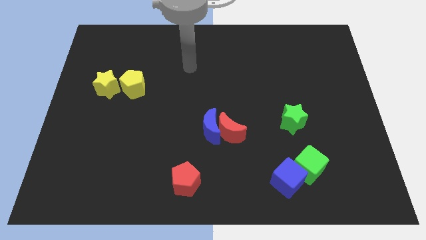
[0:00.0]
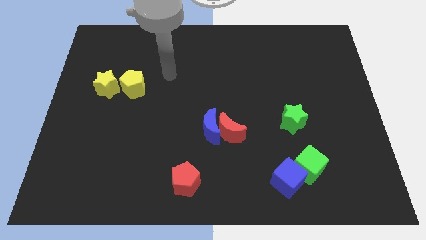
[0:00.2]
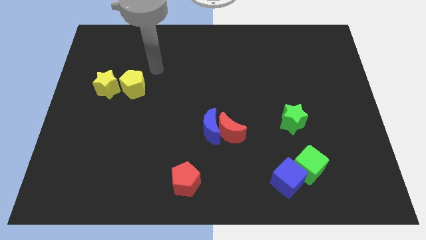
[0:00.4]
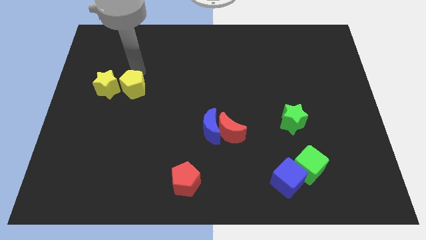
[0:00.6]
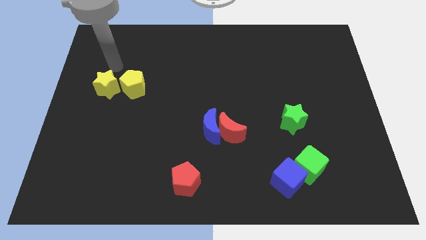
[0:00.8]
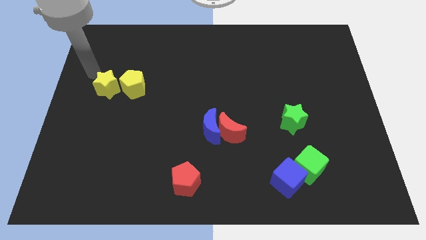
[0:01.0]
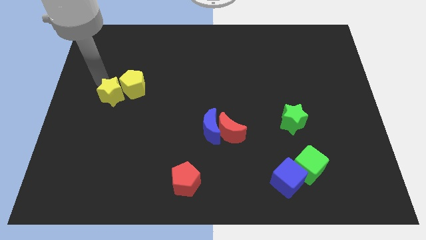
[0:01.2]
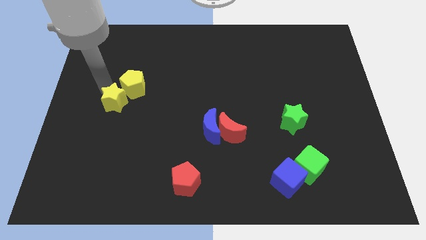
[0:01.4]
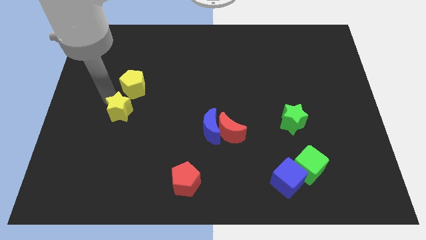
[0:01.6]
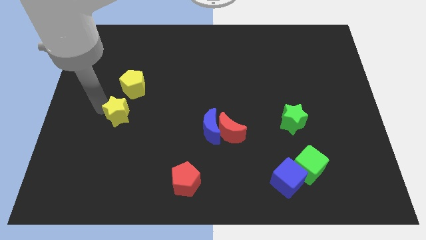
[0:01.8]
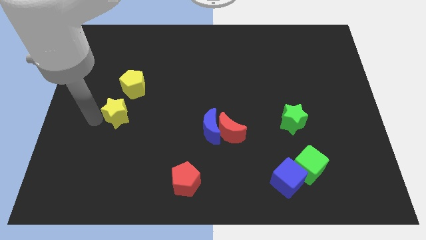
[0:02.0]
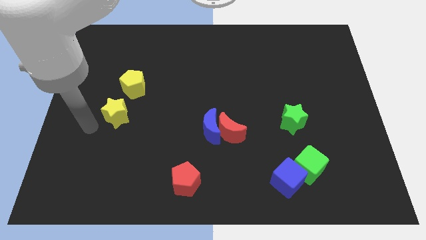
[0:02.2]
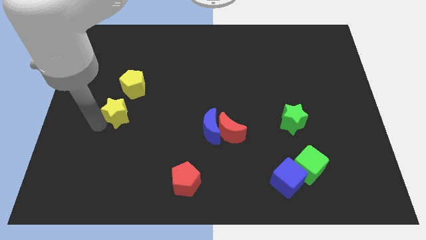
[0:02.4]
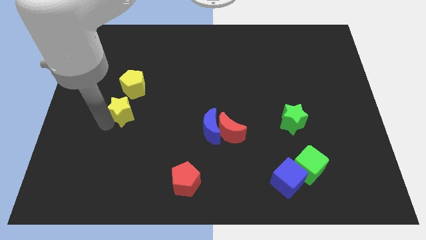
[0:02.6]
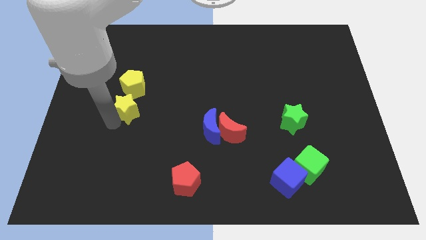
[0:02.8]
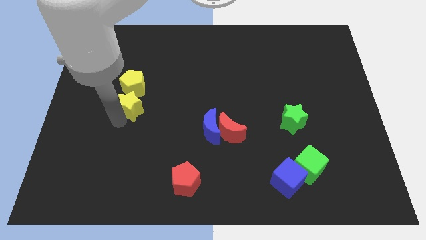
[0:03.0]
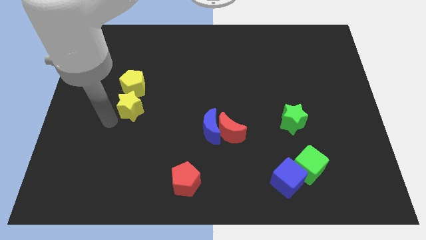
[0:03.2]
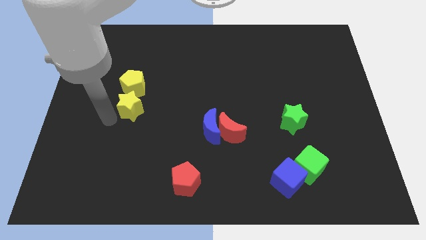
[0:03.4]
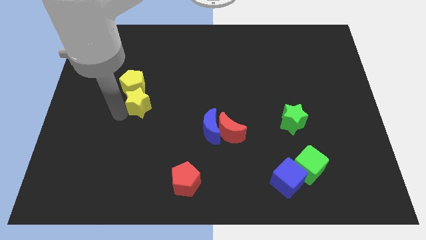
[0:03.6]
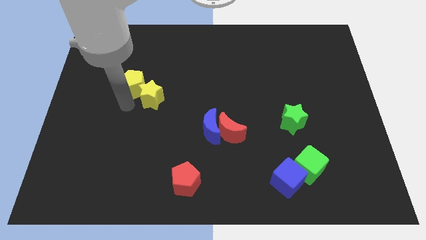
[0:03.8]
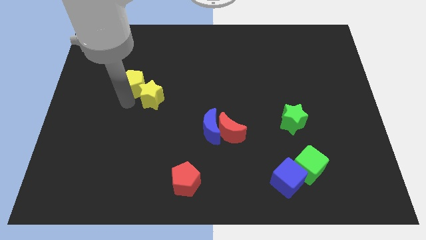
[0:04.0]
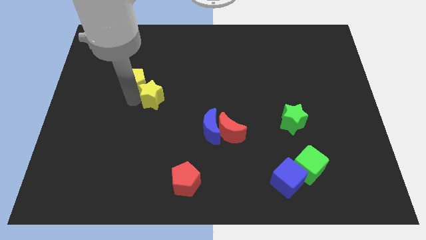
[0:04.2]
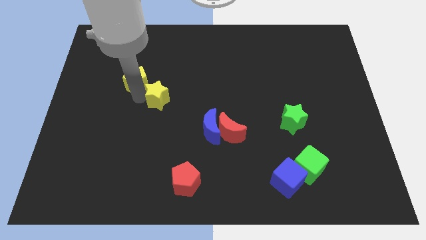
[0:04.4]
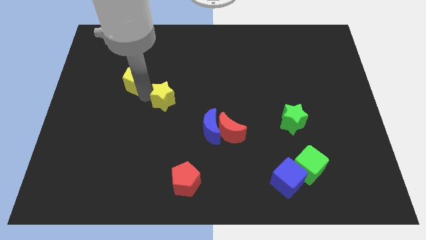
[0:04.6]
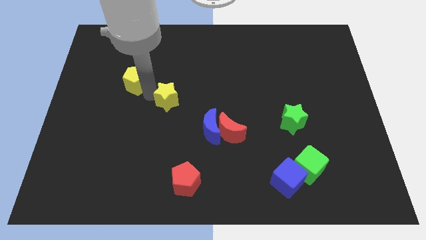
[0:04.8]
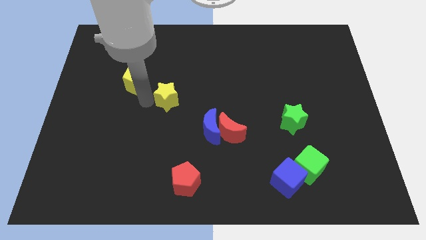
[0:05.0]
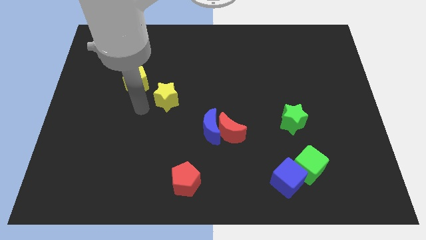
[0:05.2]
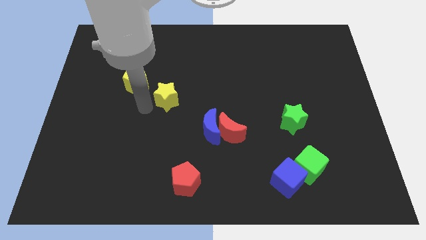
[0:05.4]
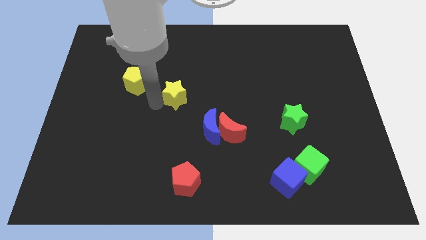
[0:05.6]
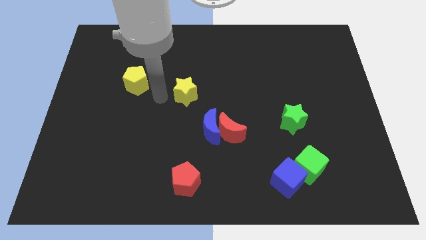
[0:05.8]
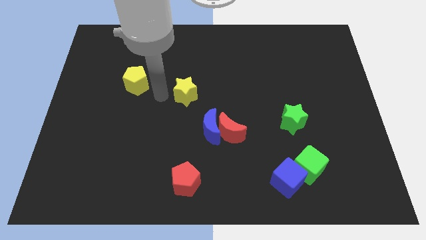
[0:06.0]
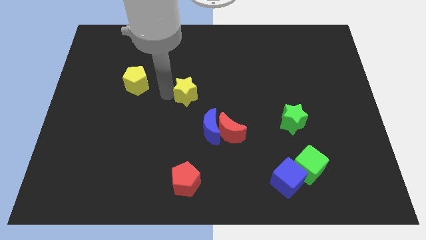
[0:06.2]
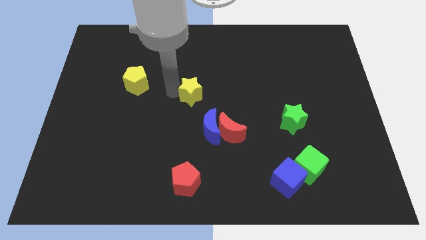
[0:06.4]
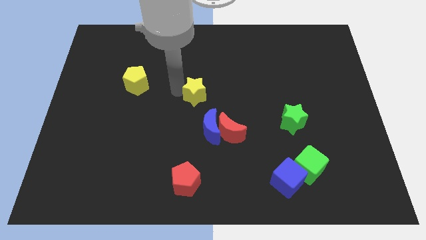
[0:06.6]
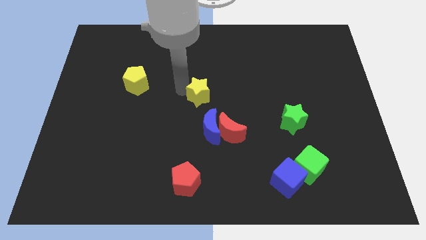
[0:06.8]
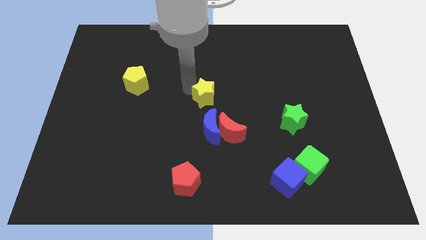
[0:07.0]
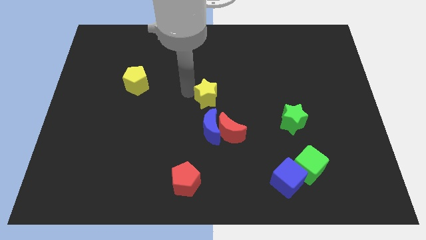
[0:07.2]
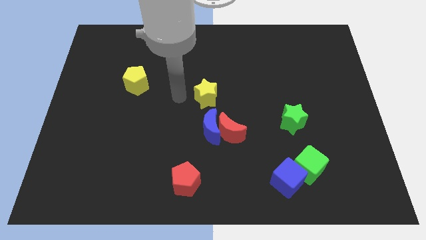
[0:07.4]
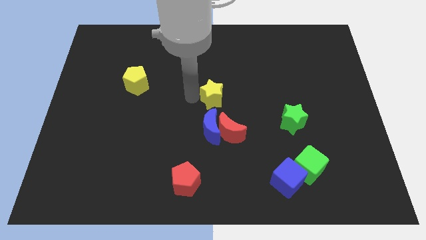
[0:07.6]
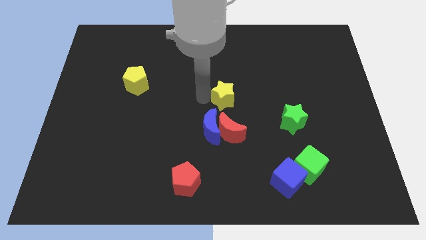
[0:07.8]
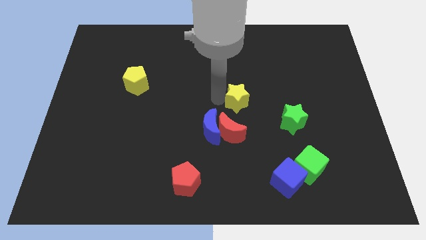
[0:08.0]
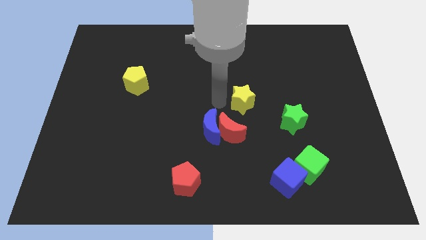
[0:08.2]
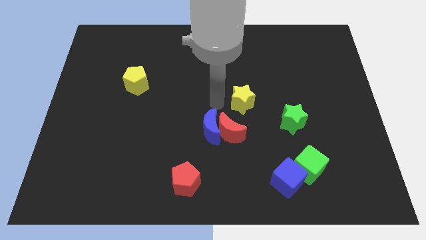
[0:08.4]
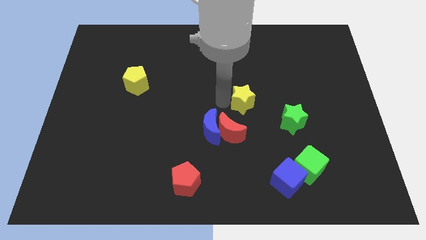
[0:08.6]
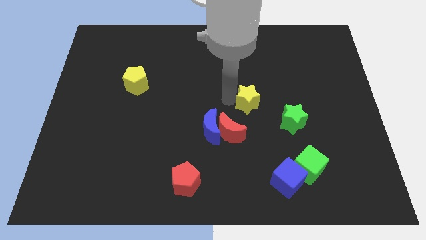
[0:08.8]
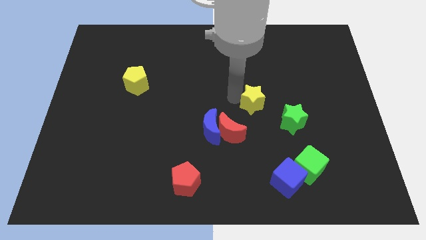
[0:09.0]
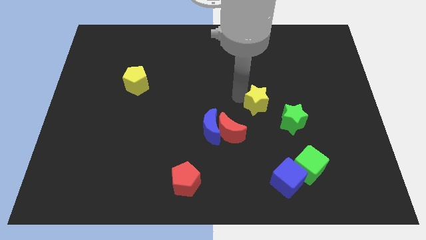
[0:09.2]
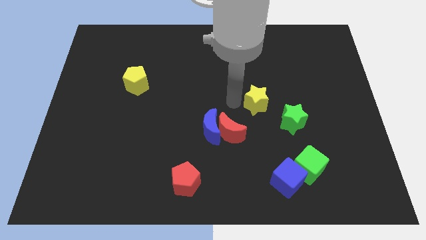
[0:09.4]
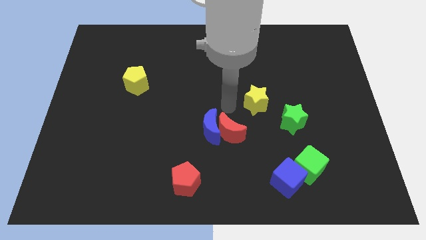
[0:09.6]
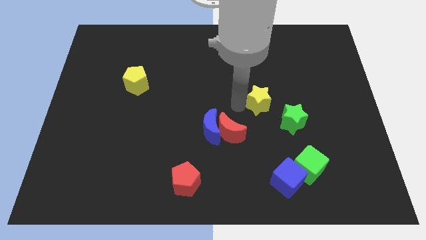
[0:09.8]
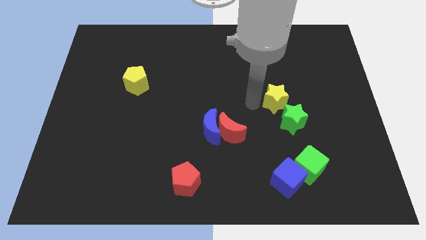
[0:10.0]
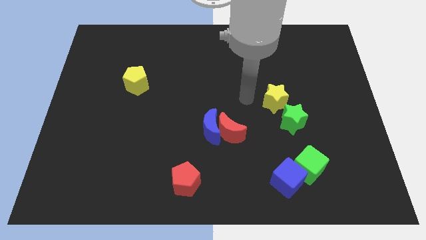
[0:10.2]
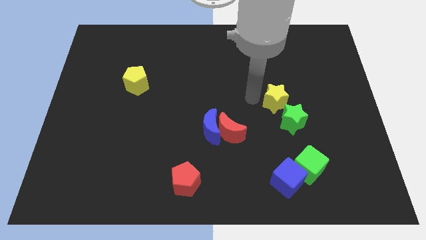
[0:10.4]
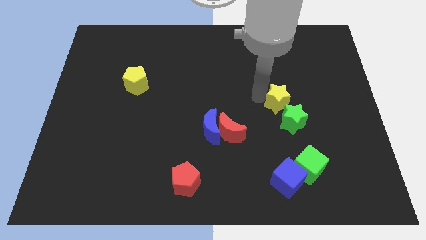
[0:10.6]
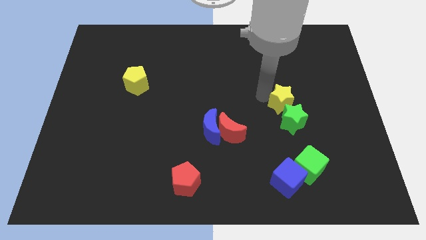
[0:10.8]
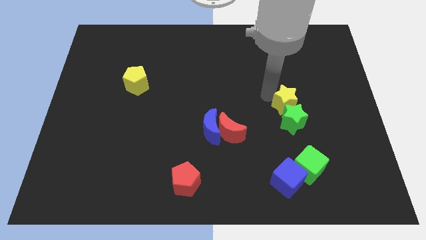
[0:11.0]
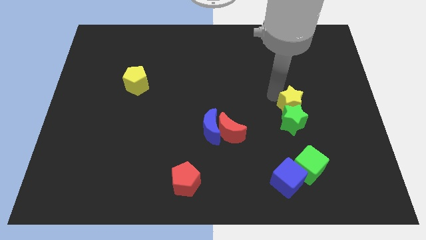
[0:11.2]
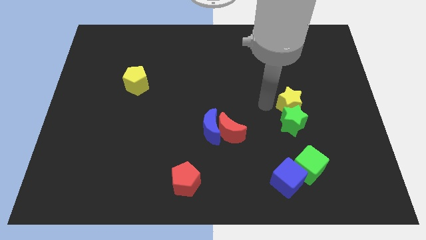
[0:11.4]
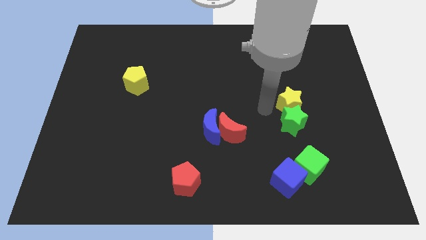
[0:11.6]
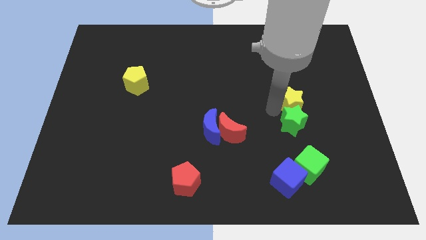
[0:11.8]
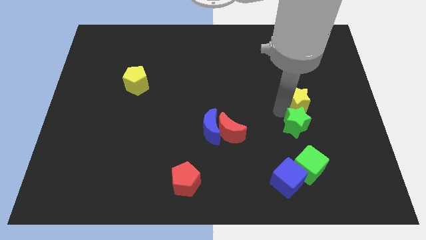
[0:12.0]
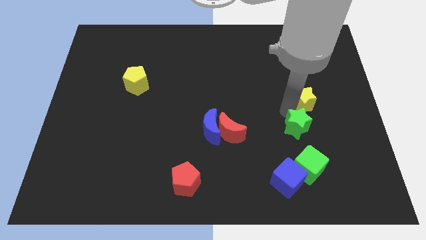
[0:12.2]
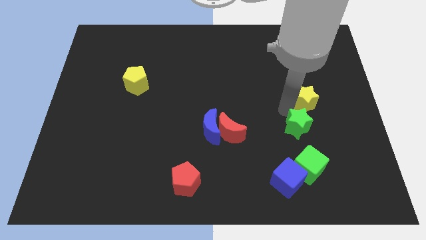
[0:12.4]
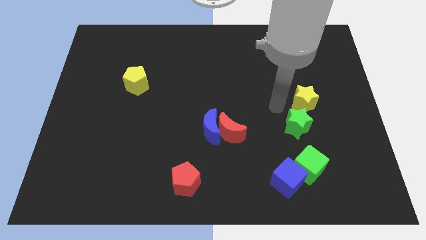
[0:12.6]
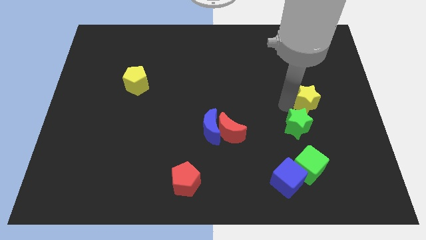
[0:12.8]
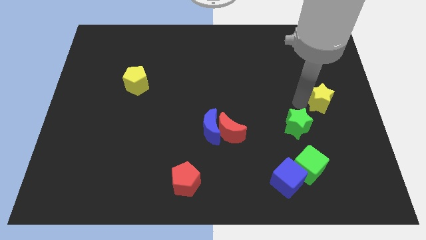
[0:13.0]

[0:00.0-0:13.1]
move the yellow star to the center right

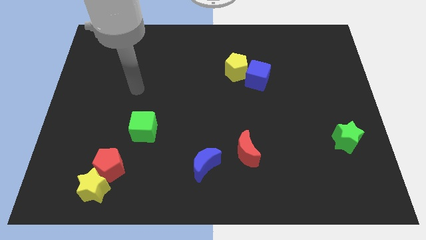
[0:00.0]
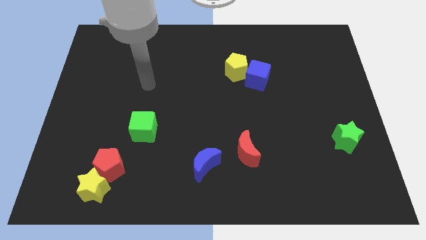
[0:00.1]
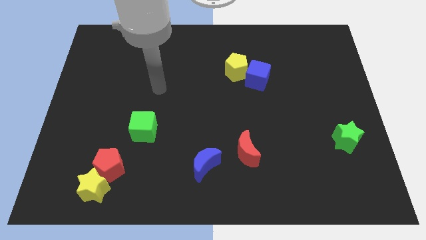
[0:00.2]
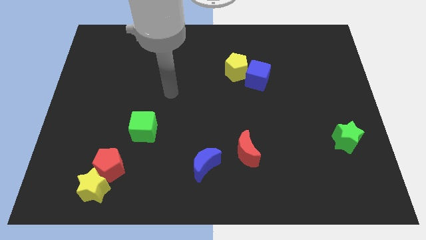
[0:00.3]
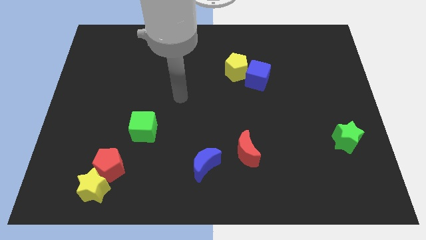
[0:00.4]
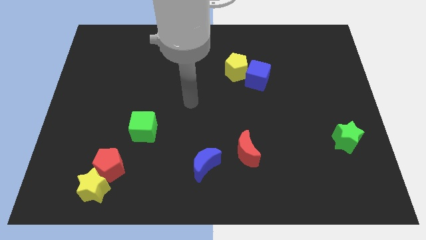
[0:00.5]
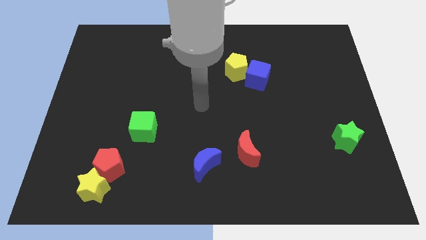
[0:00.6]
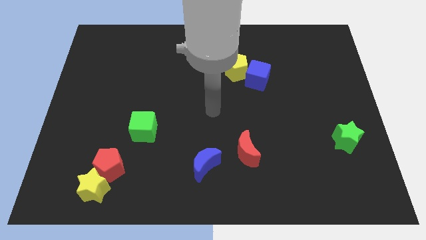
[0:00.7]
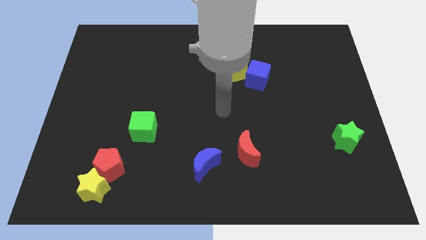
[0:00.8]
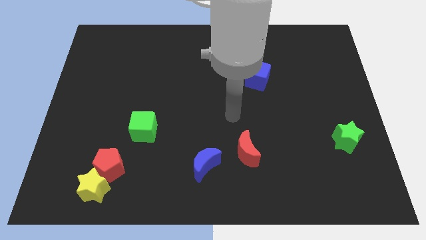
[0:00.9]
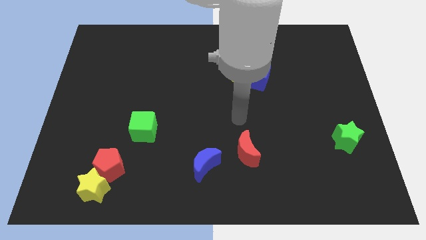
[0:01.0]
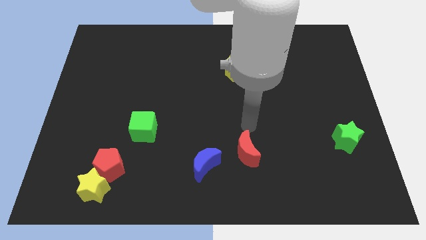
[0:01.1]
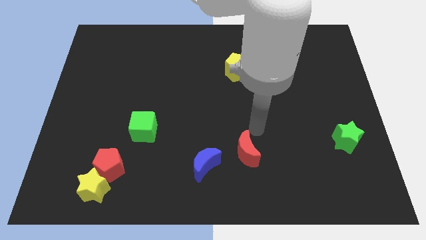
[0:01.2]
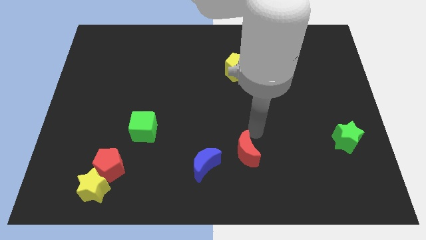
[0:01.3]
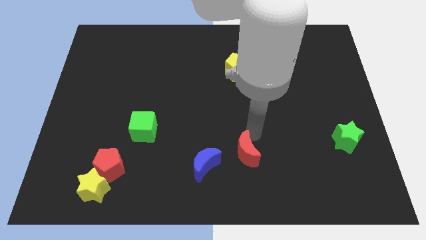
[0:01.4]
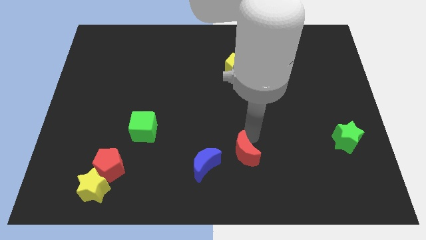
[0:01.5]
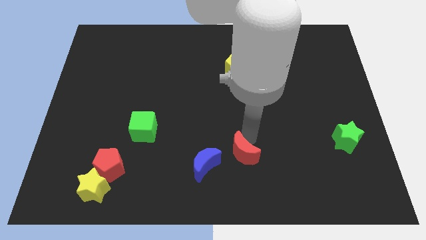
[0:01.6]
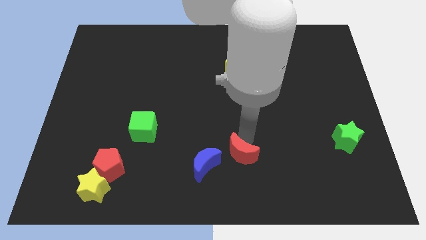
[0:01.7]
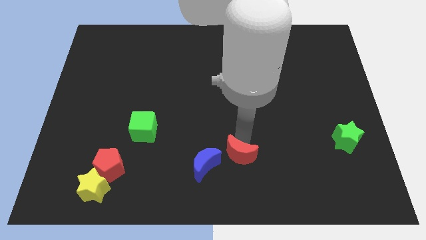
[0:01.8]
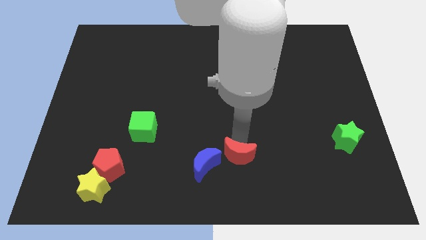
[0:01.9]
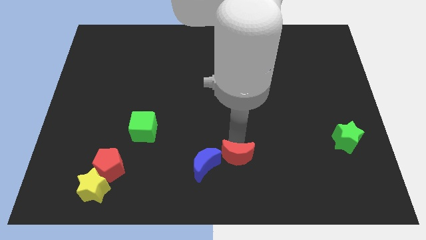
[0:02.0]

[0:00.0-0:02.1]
put the red moon to the bottom
